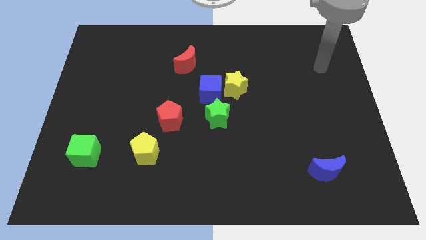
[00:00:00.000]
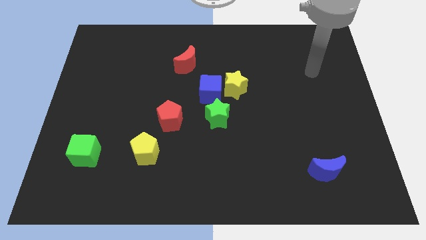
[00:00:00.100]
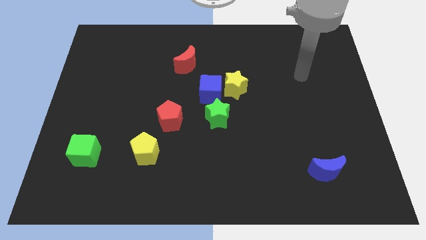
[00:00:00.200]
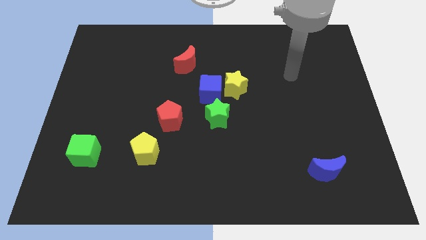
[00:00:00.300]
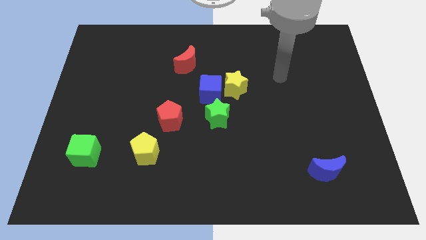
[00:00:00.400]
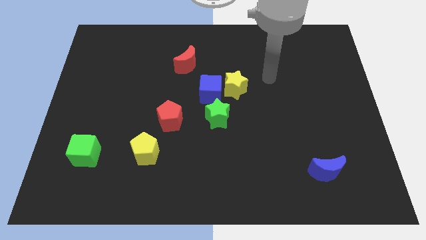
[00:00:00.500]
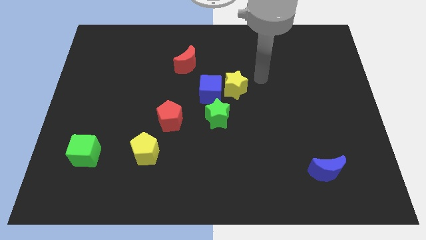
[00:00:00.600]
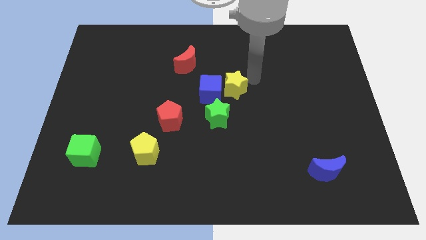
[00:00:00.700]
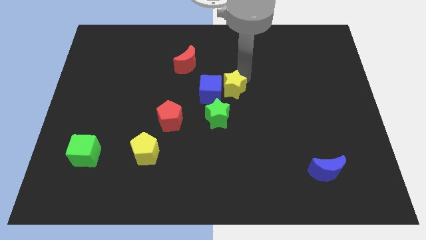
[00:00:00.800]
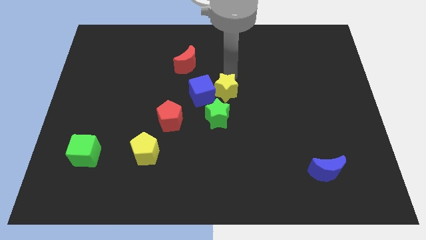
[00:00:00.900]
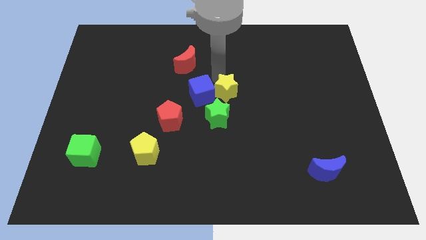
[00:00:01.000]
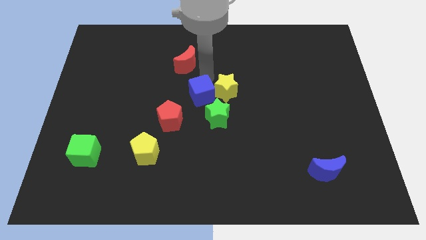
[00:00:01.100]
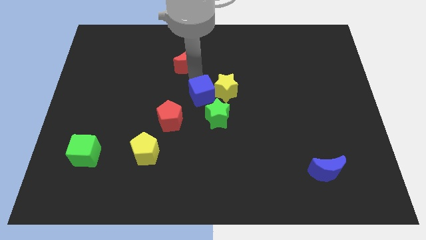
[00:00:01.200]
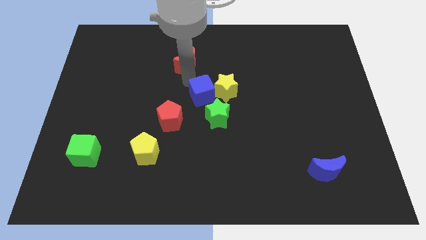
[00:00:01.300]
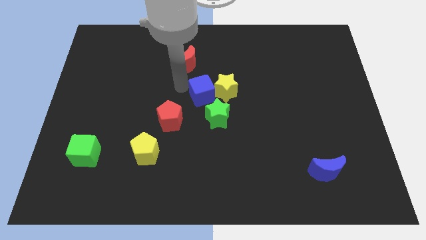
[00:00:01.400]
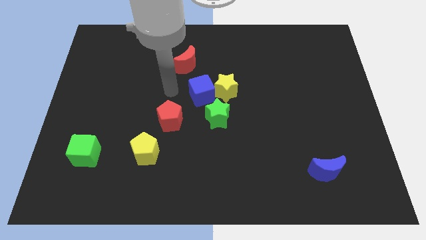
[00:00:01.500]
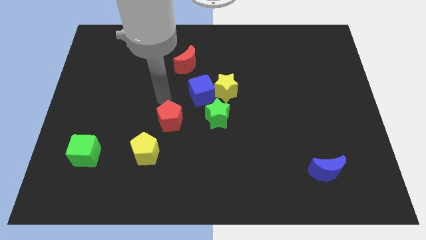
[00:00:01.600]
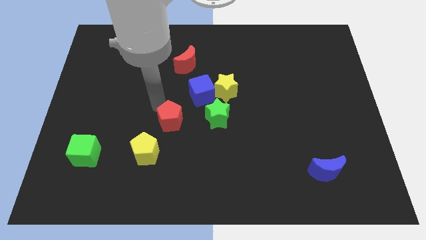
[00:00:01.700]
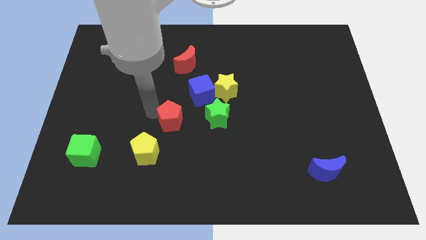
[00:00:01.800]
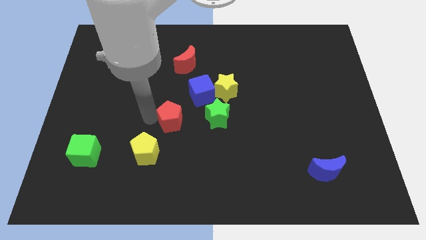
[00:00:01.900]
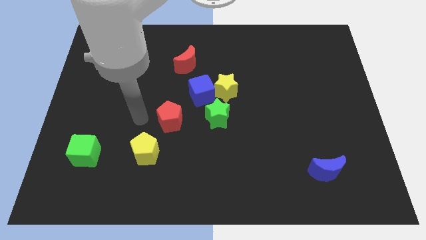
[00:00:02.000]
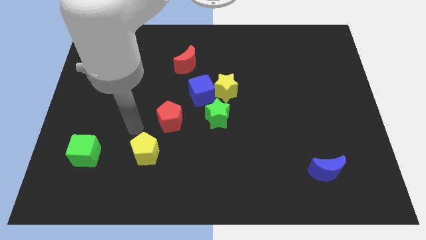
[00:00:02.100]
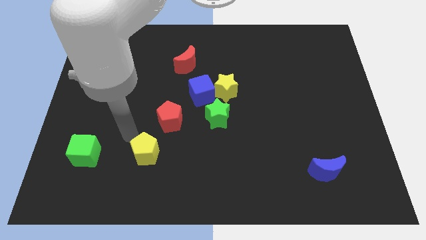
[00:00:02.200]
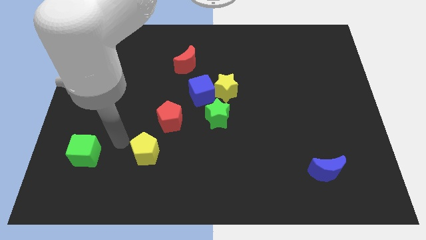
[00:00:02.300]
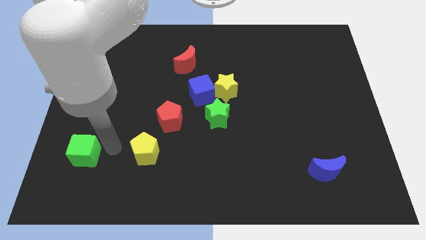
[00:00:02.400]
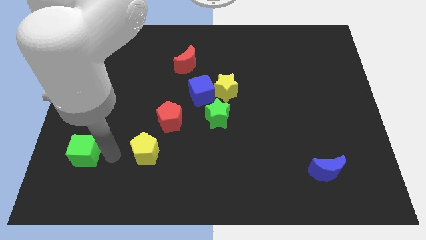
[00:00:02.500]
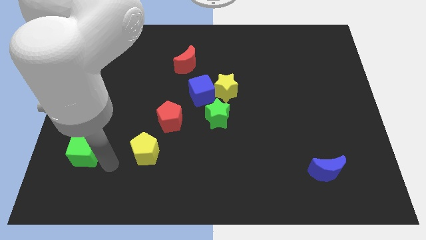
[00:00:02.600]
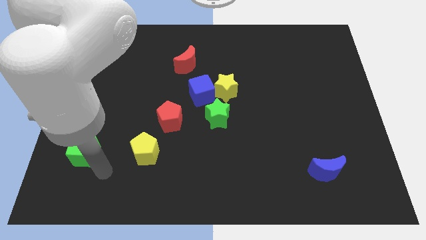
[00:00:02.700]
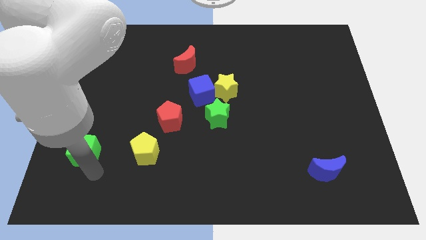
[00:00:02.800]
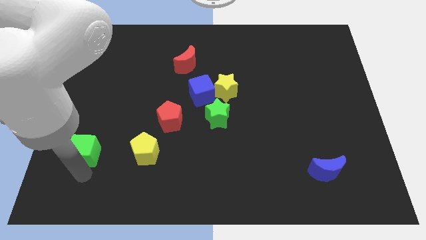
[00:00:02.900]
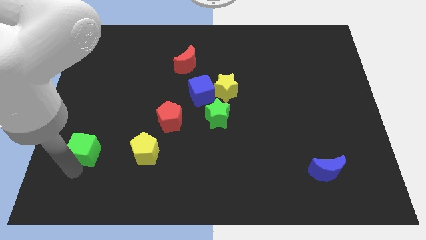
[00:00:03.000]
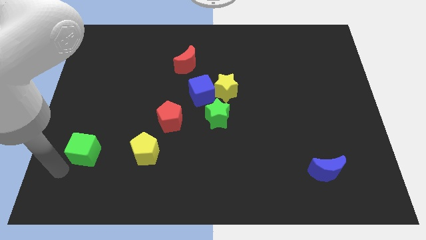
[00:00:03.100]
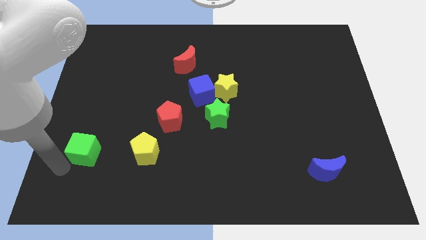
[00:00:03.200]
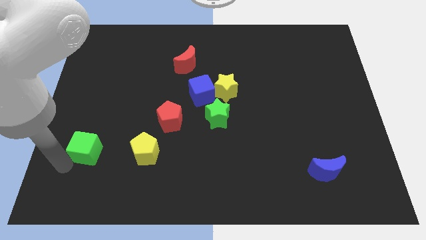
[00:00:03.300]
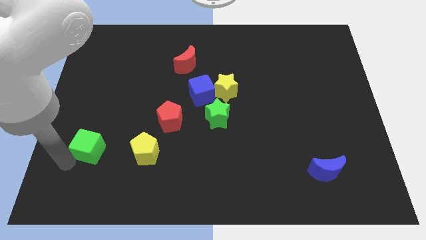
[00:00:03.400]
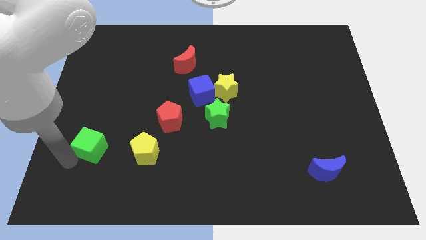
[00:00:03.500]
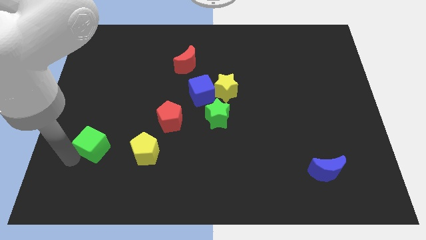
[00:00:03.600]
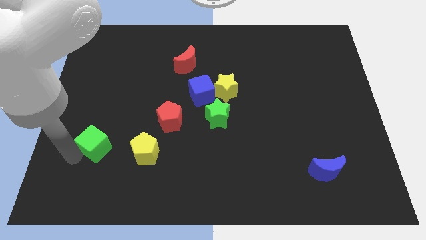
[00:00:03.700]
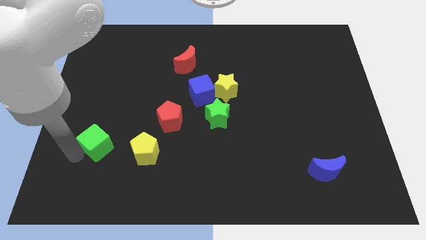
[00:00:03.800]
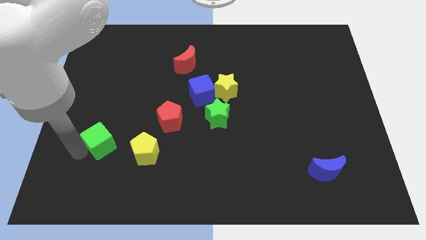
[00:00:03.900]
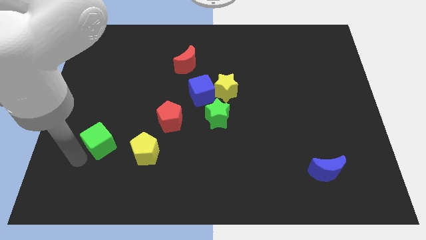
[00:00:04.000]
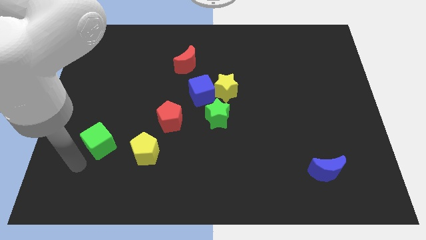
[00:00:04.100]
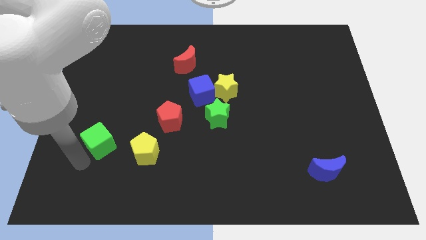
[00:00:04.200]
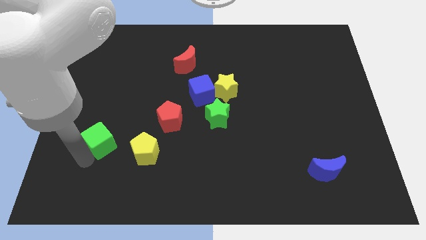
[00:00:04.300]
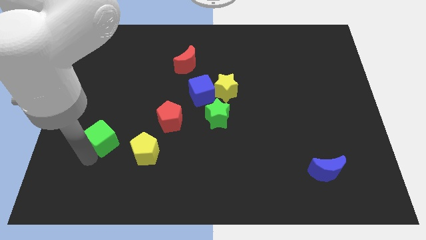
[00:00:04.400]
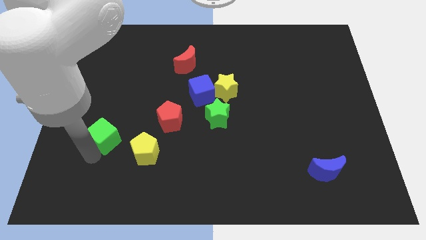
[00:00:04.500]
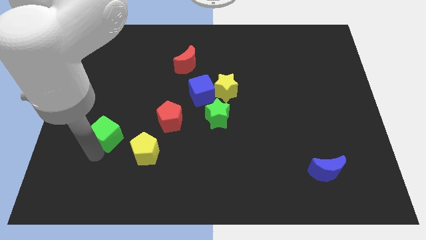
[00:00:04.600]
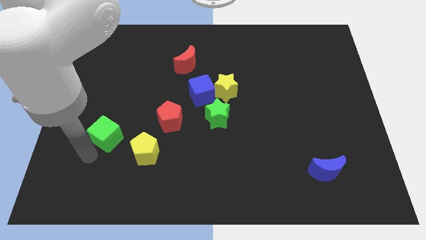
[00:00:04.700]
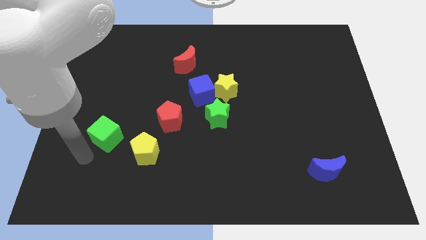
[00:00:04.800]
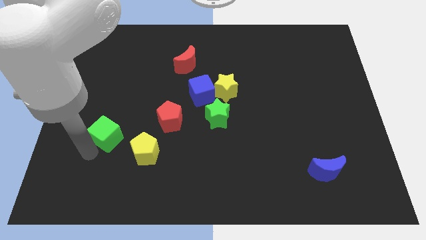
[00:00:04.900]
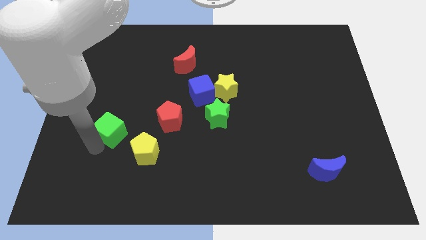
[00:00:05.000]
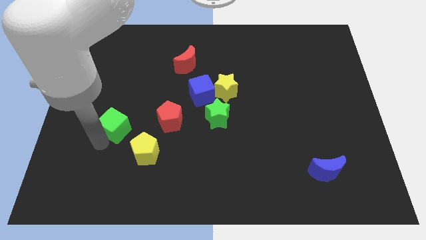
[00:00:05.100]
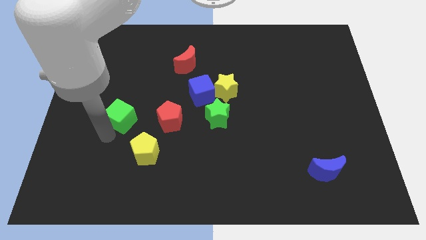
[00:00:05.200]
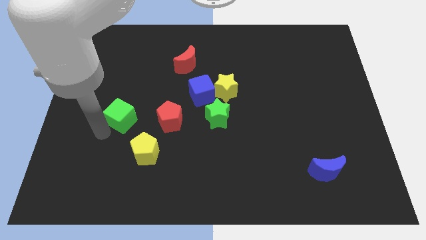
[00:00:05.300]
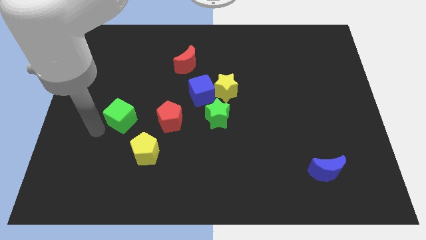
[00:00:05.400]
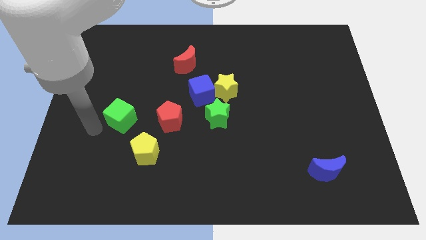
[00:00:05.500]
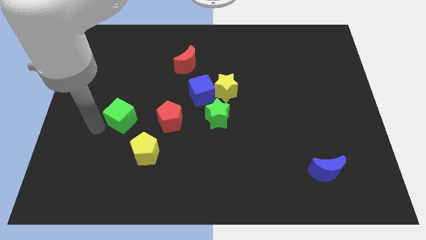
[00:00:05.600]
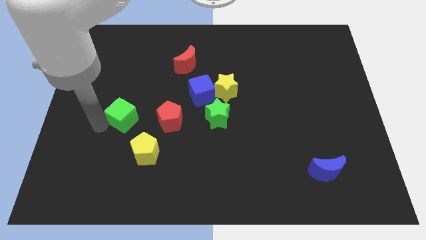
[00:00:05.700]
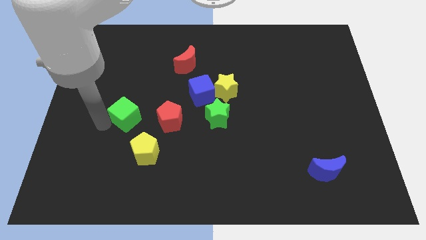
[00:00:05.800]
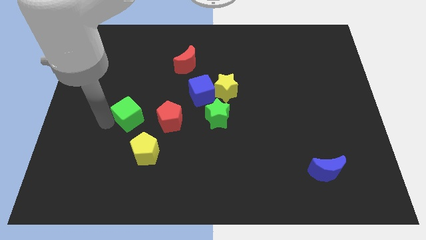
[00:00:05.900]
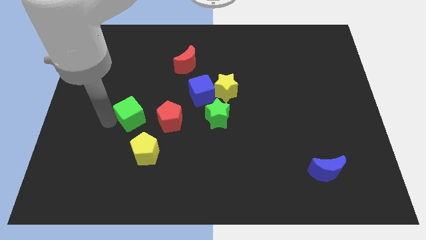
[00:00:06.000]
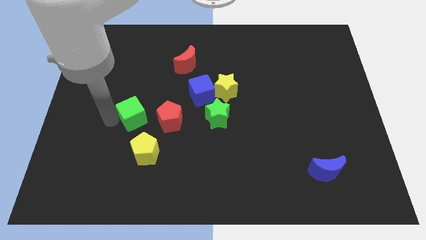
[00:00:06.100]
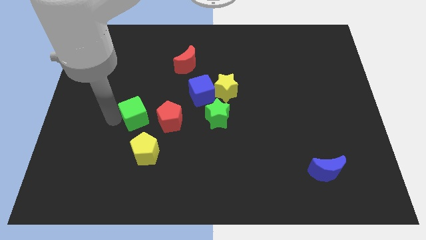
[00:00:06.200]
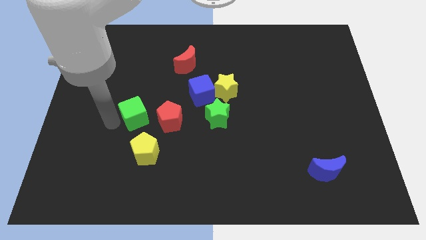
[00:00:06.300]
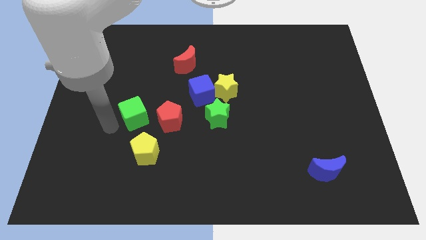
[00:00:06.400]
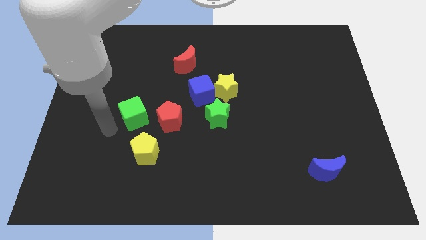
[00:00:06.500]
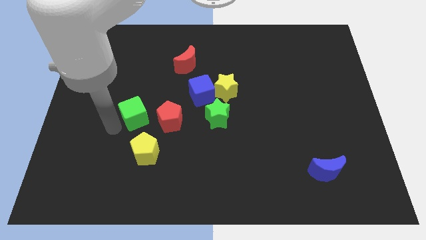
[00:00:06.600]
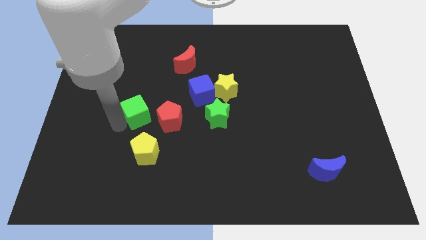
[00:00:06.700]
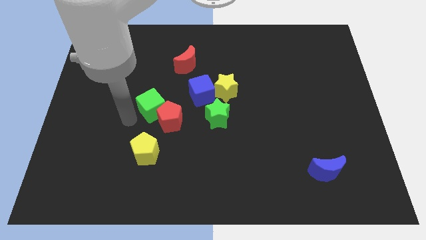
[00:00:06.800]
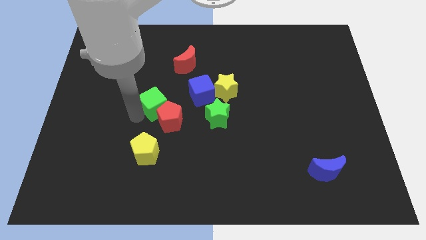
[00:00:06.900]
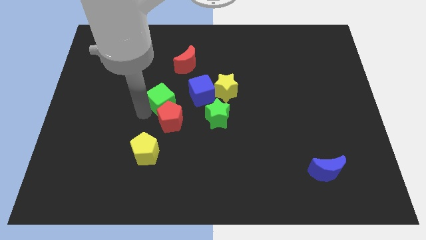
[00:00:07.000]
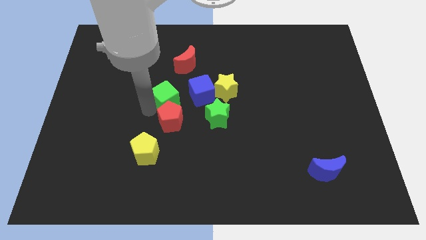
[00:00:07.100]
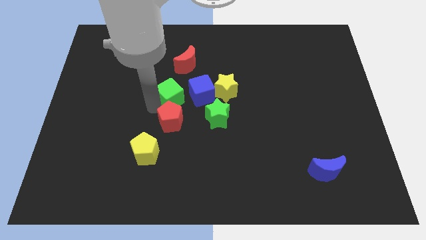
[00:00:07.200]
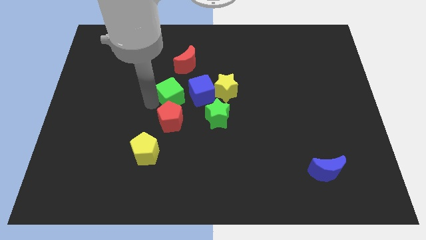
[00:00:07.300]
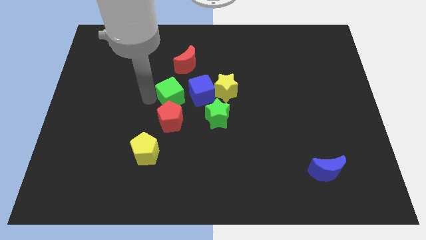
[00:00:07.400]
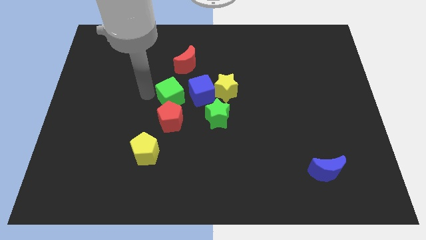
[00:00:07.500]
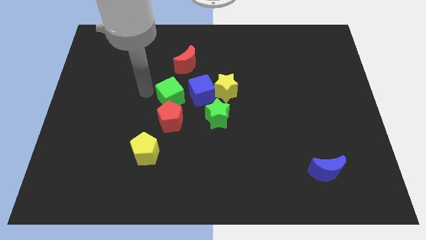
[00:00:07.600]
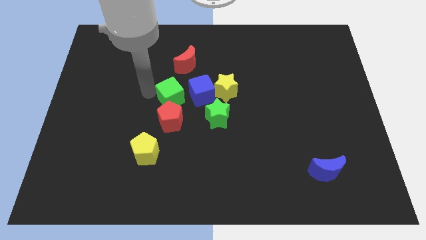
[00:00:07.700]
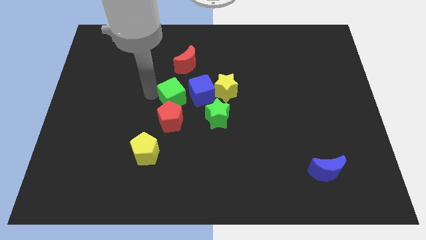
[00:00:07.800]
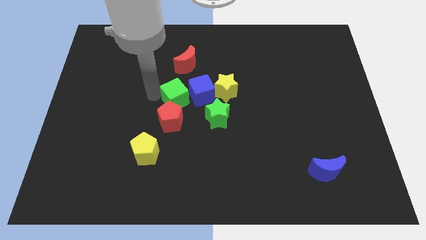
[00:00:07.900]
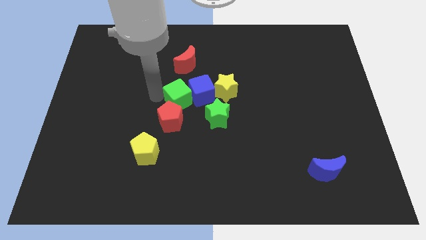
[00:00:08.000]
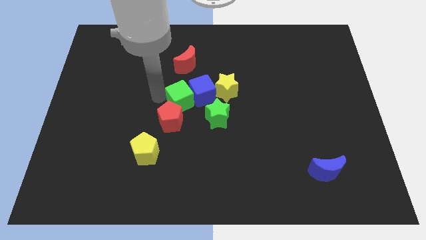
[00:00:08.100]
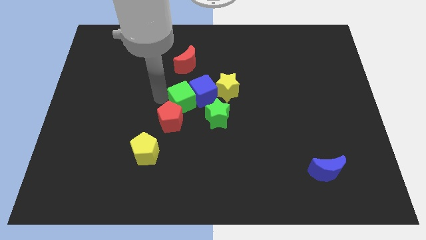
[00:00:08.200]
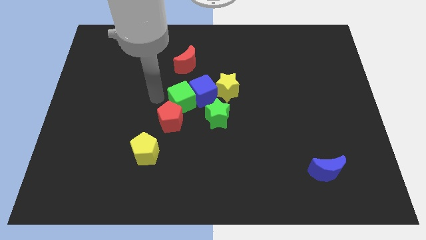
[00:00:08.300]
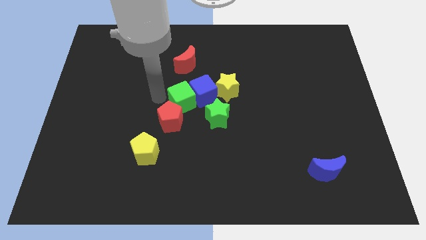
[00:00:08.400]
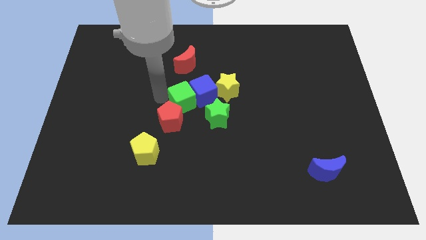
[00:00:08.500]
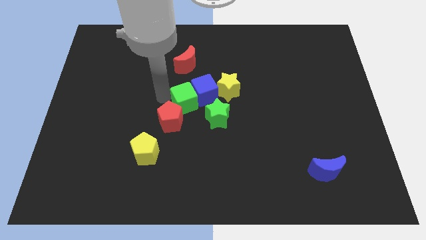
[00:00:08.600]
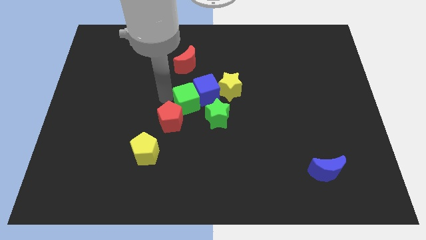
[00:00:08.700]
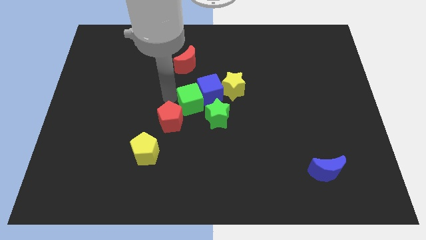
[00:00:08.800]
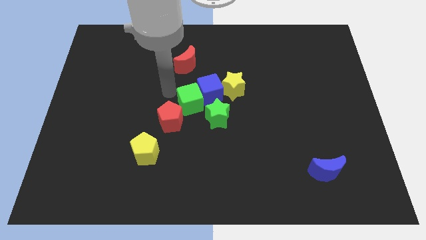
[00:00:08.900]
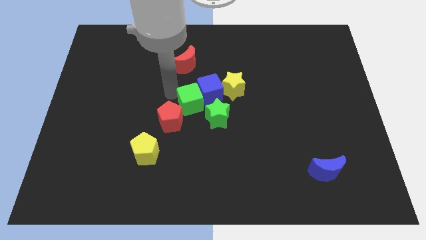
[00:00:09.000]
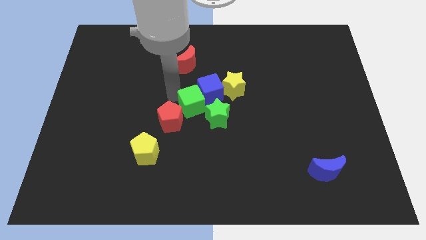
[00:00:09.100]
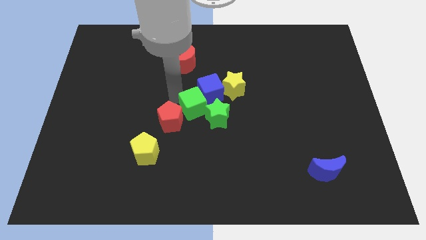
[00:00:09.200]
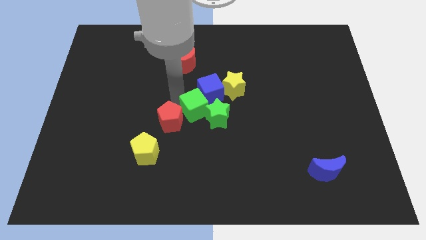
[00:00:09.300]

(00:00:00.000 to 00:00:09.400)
put the green cube next to the green star
